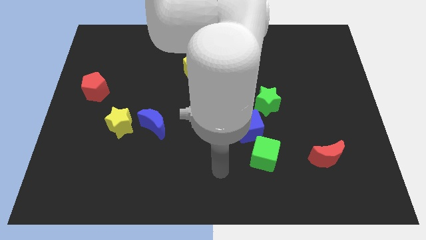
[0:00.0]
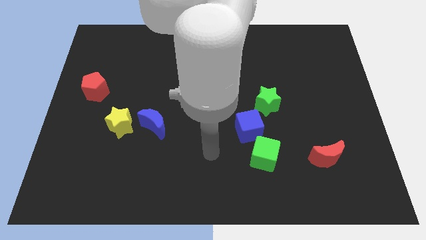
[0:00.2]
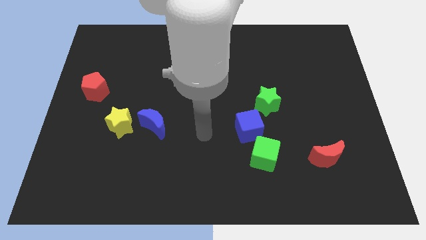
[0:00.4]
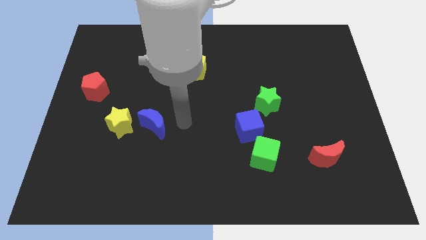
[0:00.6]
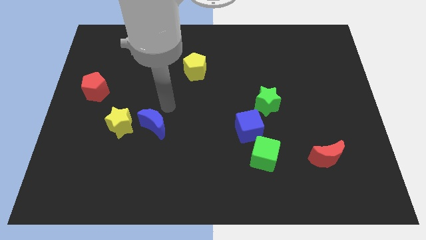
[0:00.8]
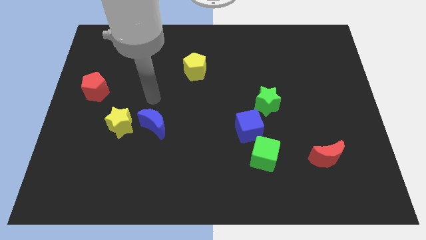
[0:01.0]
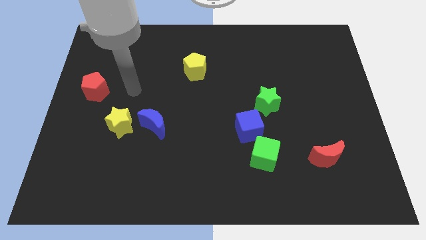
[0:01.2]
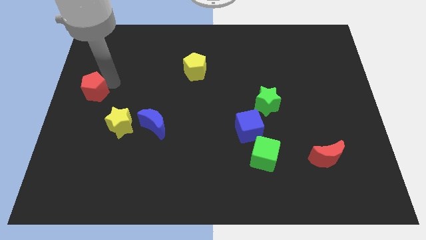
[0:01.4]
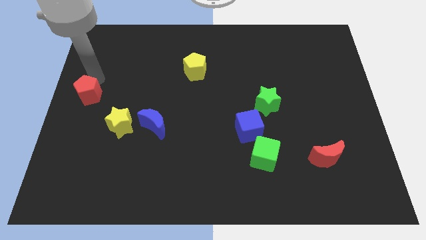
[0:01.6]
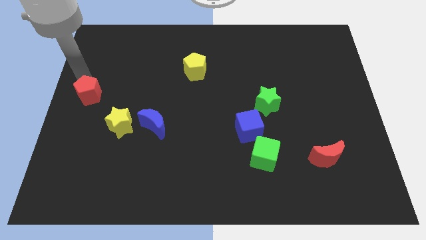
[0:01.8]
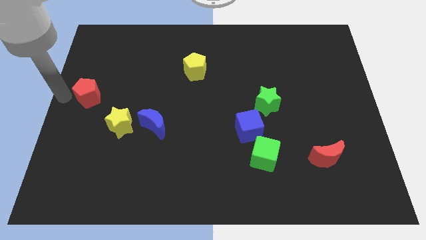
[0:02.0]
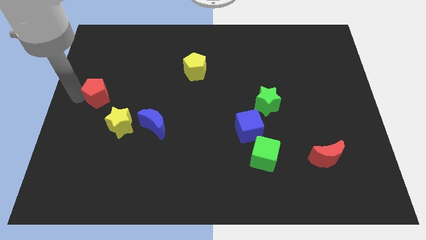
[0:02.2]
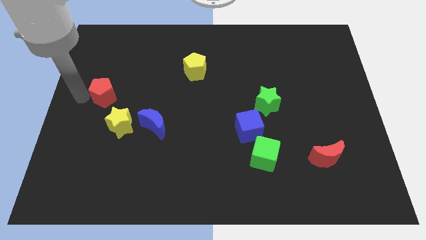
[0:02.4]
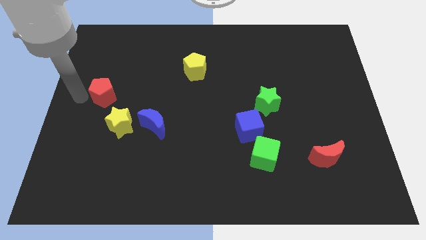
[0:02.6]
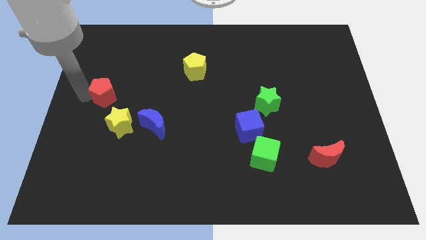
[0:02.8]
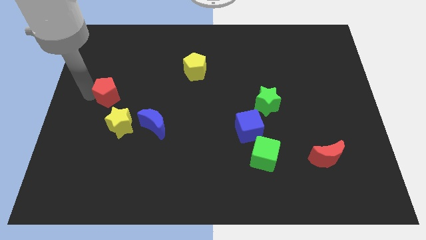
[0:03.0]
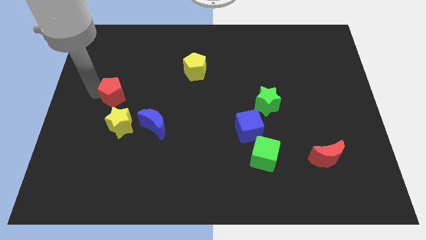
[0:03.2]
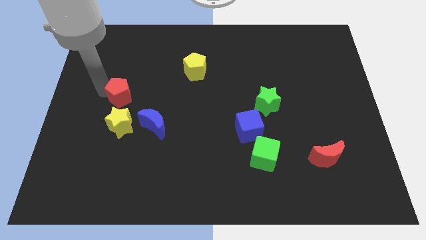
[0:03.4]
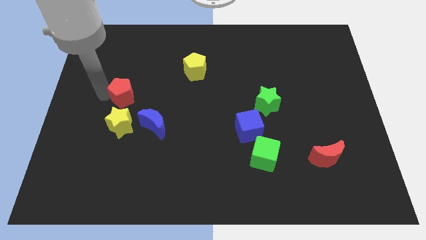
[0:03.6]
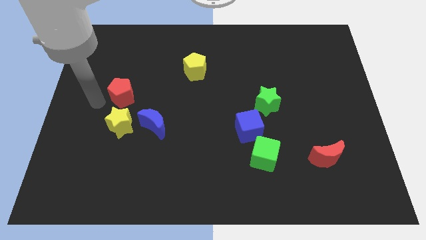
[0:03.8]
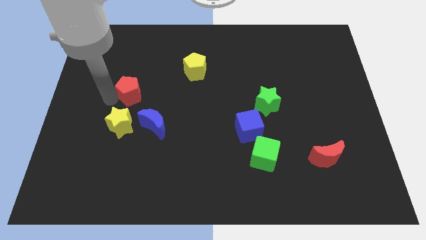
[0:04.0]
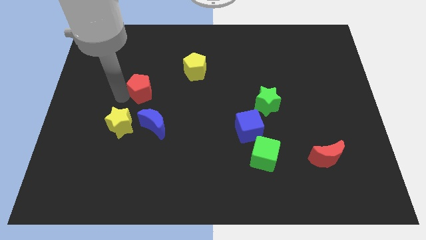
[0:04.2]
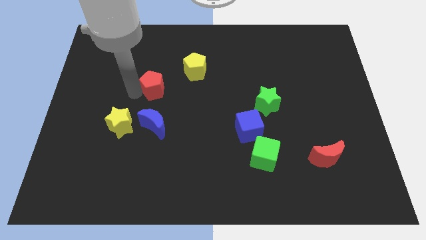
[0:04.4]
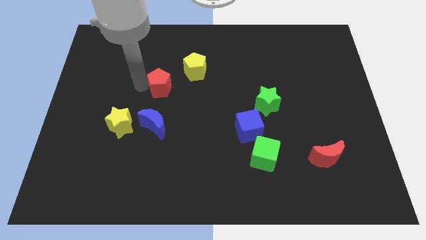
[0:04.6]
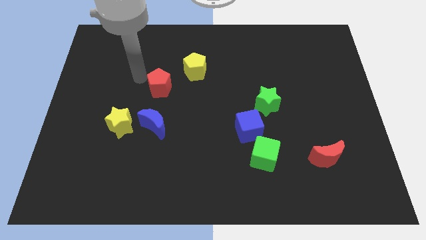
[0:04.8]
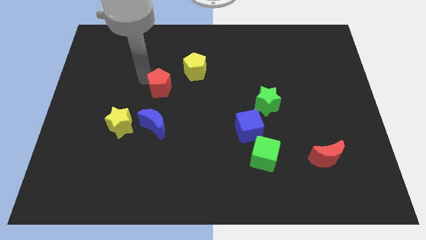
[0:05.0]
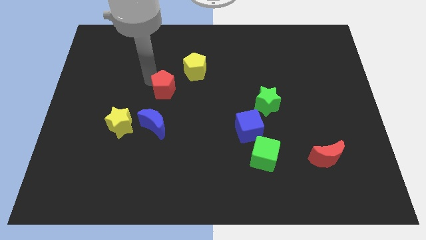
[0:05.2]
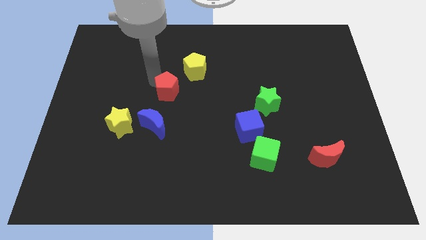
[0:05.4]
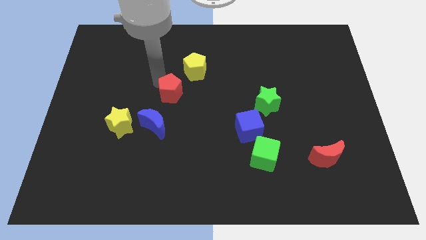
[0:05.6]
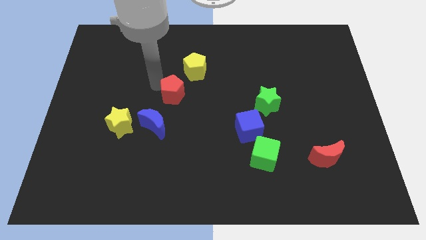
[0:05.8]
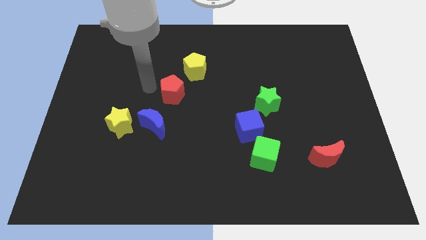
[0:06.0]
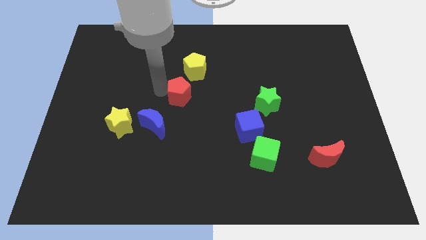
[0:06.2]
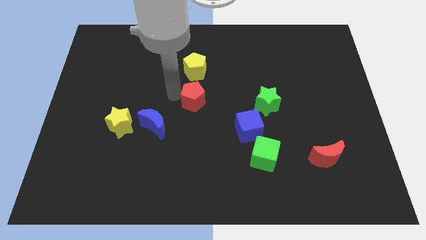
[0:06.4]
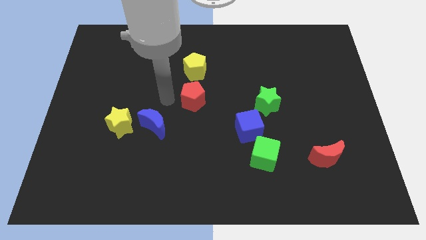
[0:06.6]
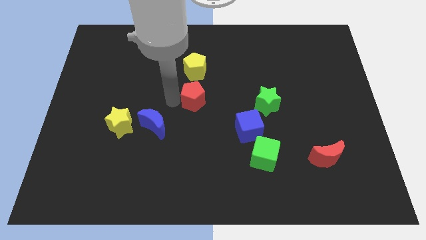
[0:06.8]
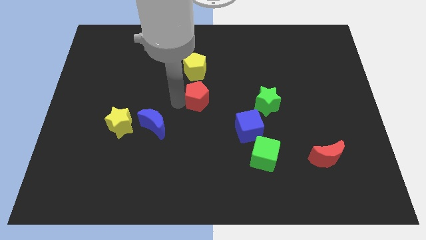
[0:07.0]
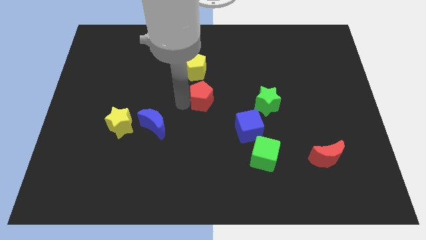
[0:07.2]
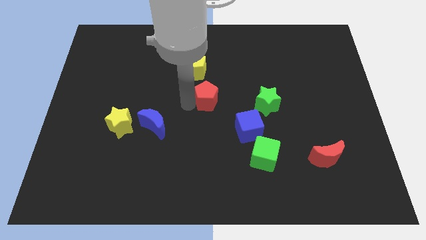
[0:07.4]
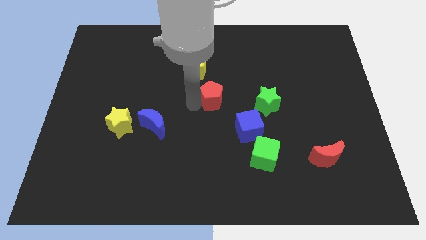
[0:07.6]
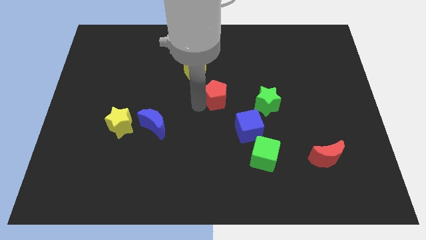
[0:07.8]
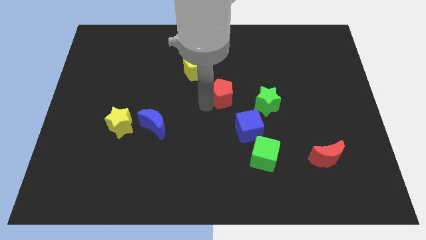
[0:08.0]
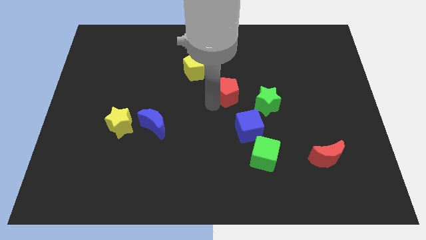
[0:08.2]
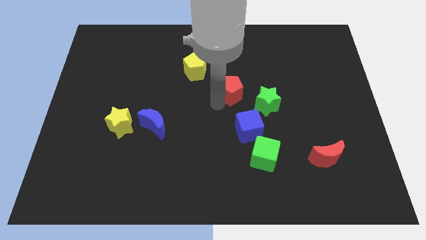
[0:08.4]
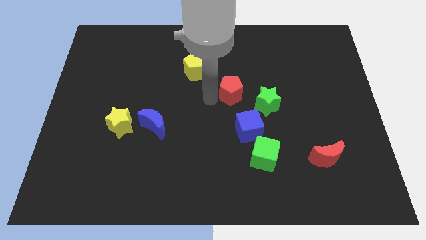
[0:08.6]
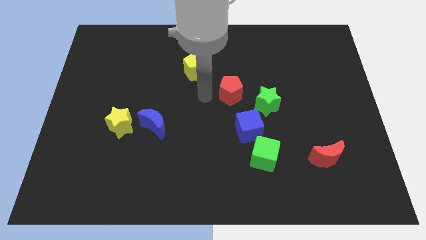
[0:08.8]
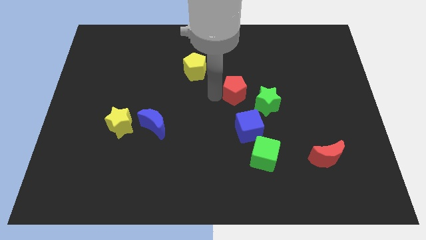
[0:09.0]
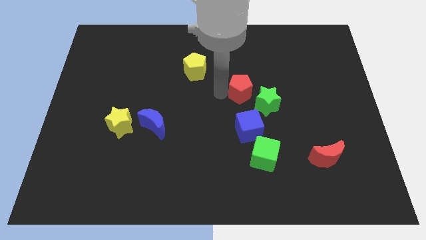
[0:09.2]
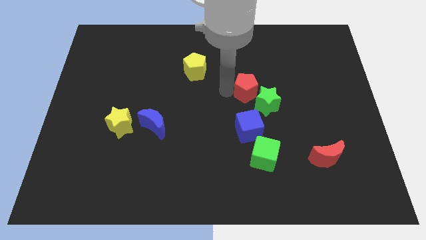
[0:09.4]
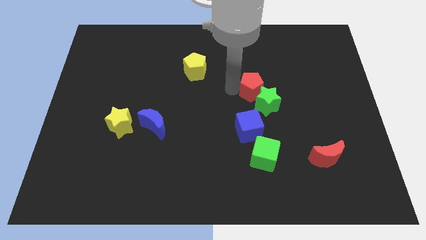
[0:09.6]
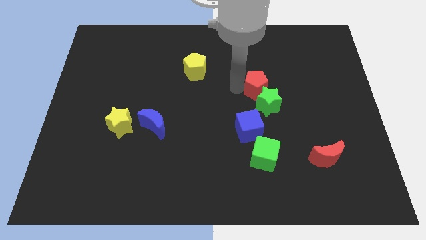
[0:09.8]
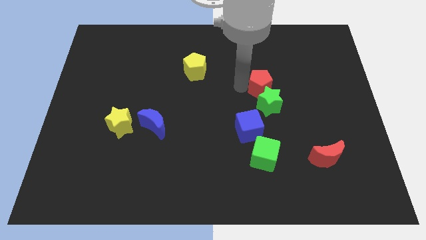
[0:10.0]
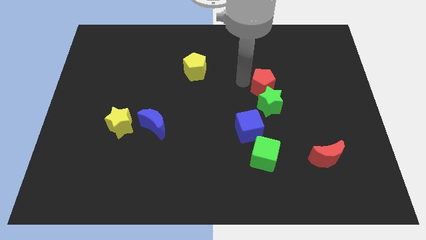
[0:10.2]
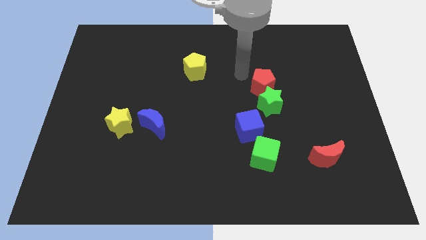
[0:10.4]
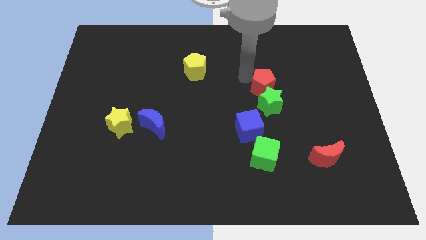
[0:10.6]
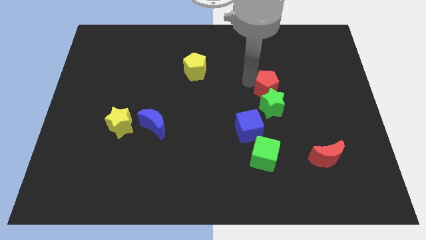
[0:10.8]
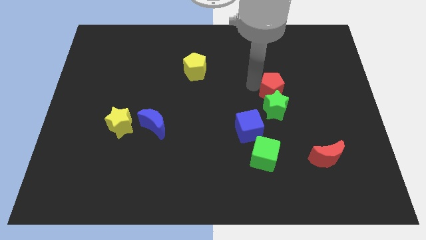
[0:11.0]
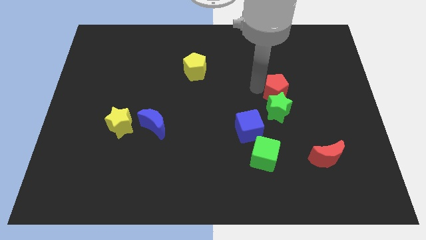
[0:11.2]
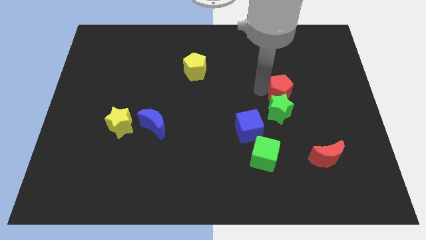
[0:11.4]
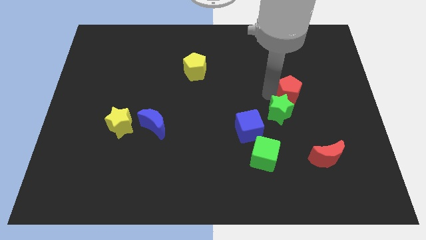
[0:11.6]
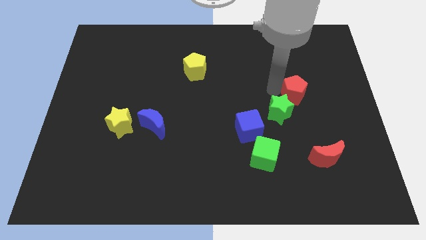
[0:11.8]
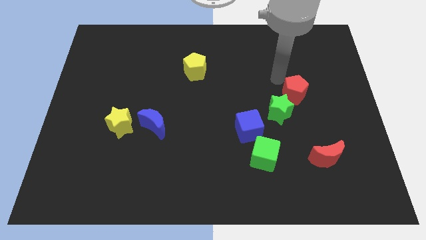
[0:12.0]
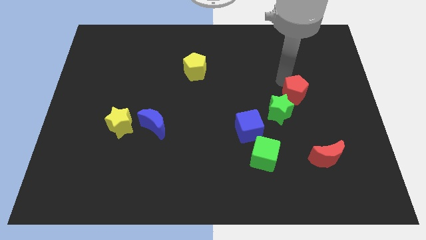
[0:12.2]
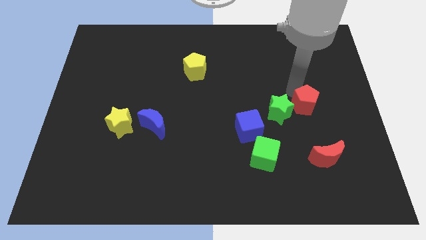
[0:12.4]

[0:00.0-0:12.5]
push the red pentagon above the red moon
